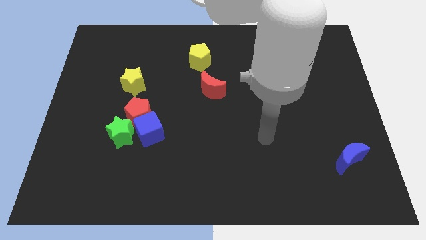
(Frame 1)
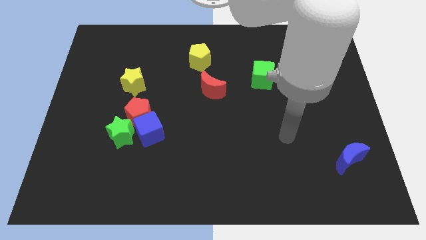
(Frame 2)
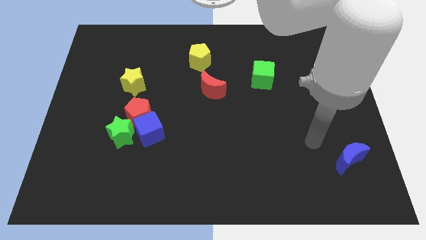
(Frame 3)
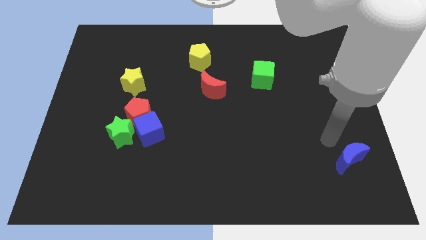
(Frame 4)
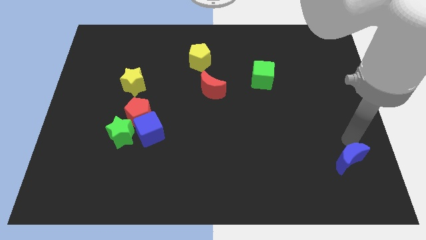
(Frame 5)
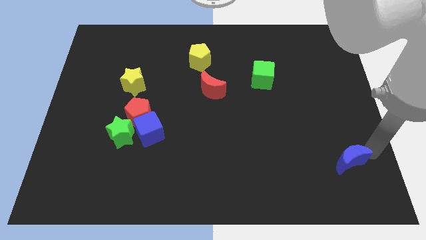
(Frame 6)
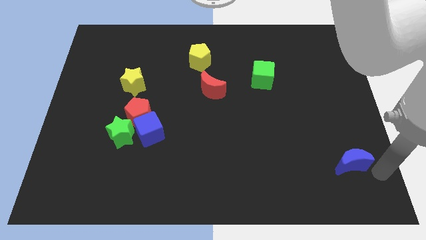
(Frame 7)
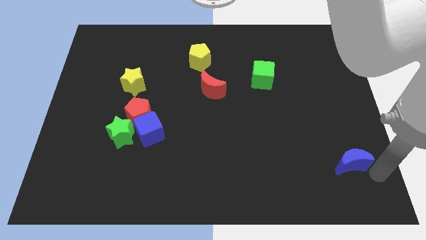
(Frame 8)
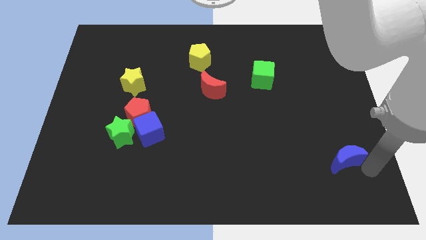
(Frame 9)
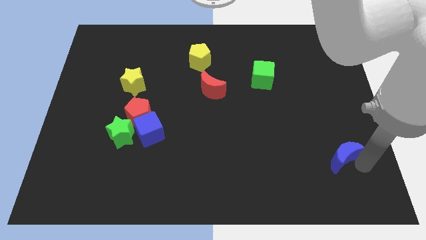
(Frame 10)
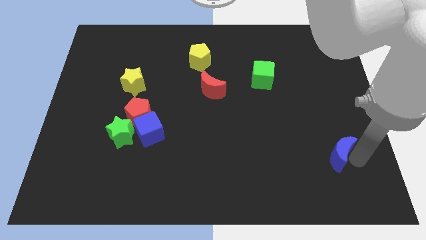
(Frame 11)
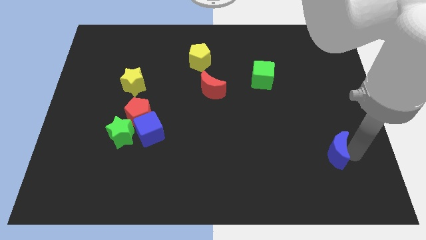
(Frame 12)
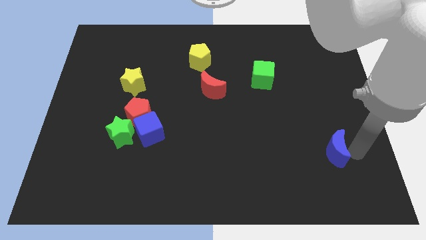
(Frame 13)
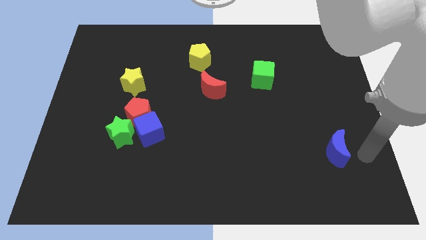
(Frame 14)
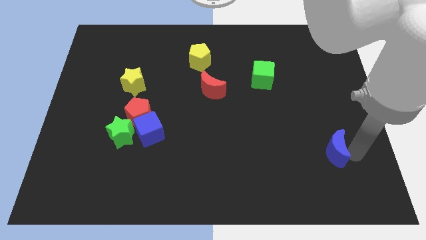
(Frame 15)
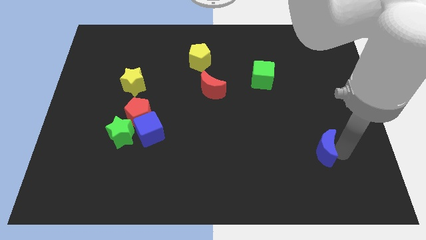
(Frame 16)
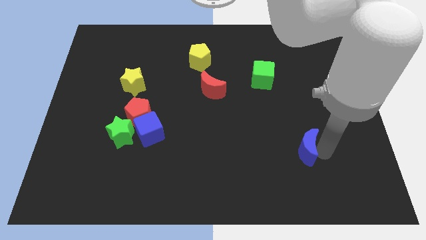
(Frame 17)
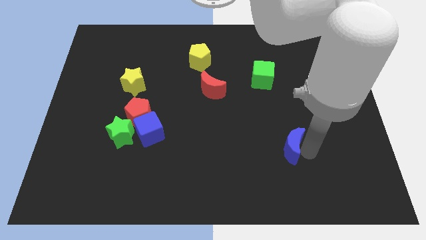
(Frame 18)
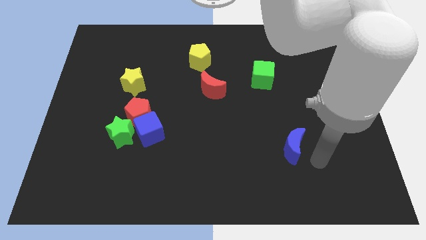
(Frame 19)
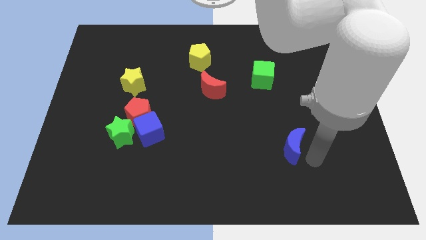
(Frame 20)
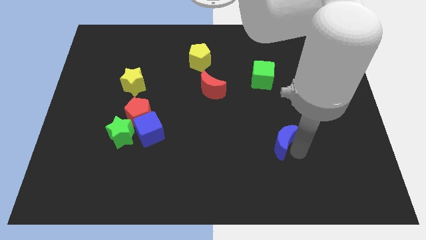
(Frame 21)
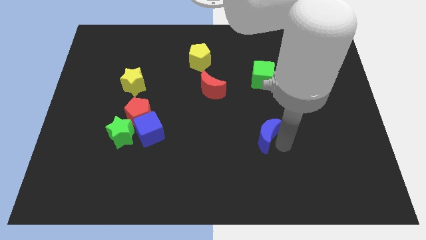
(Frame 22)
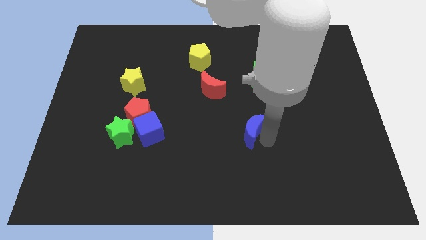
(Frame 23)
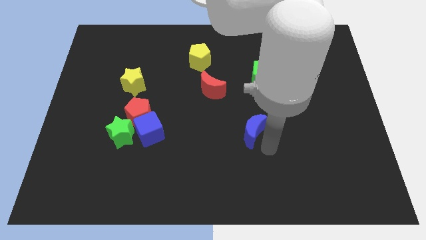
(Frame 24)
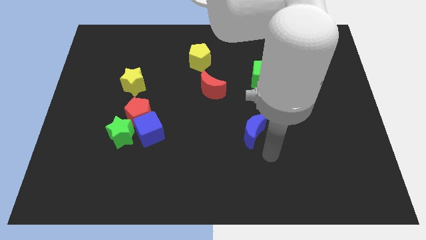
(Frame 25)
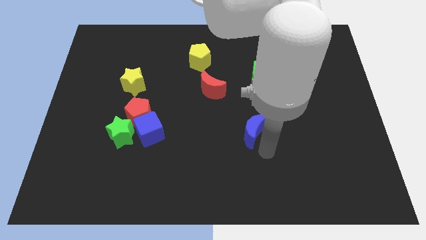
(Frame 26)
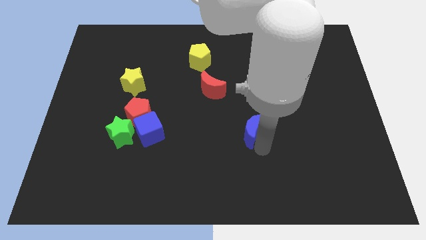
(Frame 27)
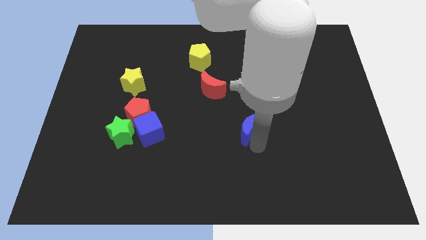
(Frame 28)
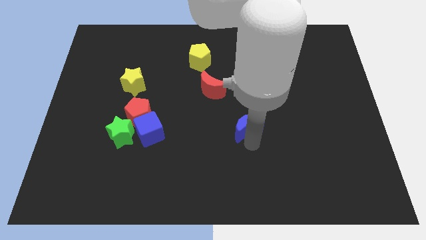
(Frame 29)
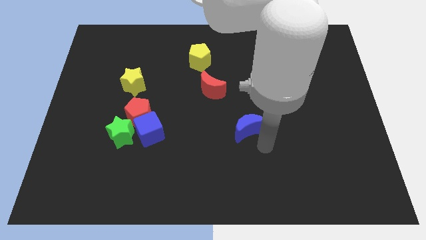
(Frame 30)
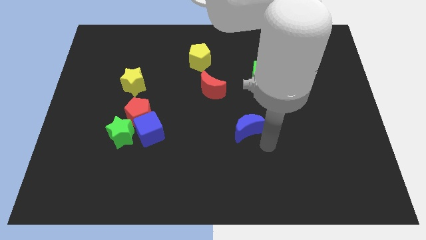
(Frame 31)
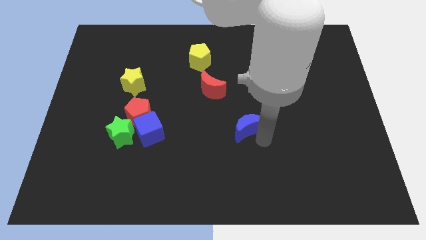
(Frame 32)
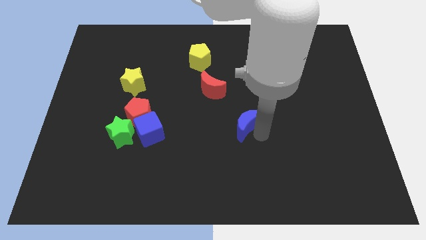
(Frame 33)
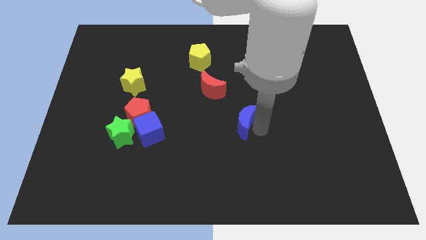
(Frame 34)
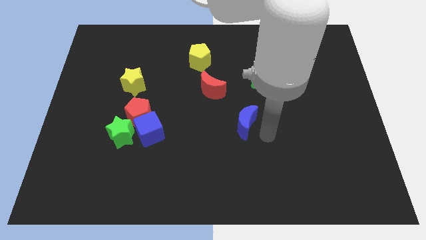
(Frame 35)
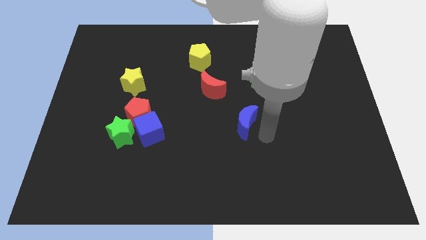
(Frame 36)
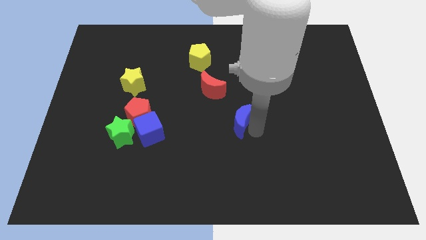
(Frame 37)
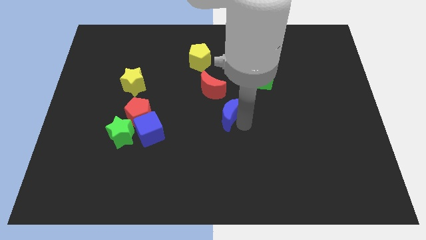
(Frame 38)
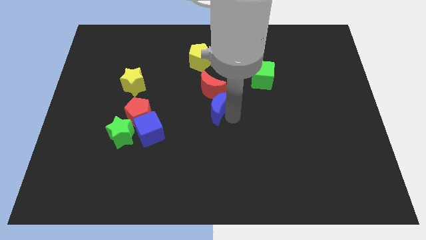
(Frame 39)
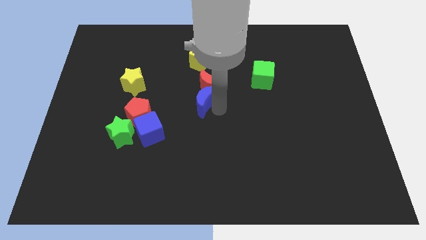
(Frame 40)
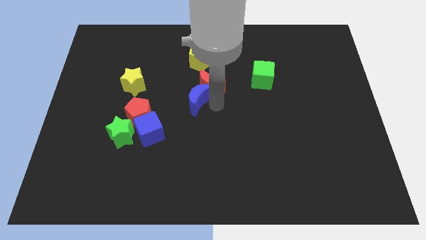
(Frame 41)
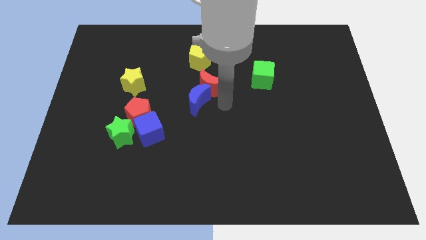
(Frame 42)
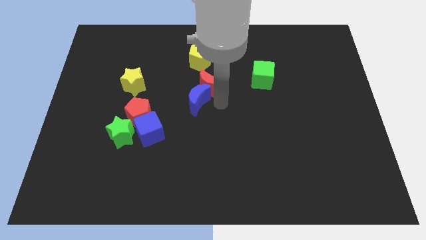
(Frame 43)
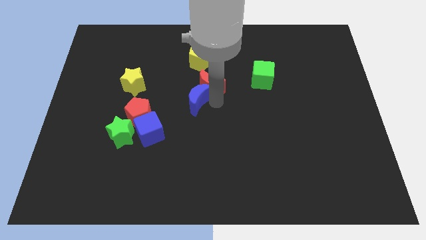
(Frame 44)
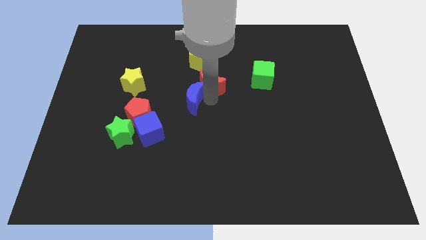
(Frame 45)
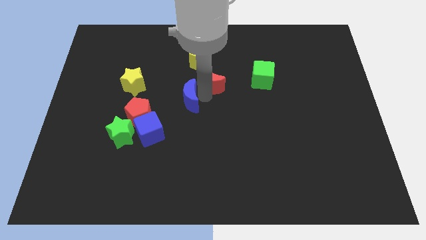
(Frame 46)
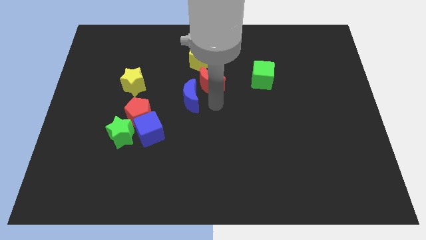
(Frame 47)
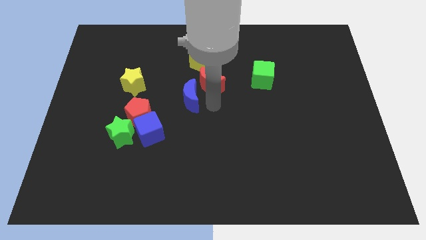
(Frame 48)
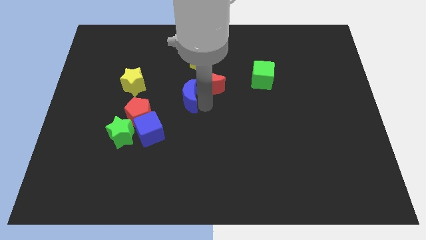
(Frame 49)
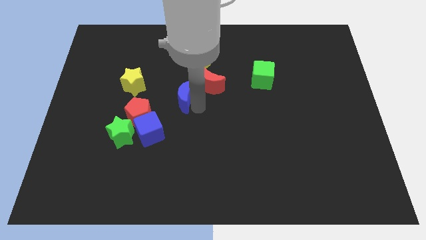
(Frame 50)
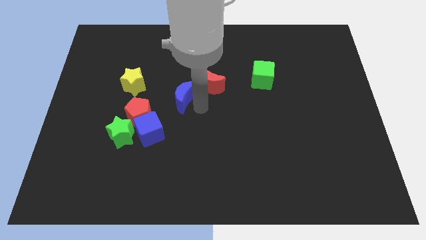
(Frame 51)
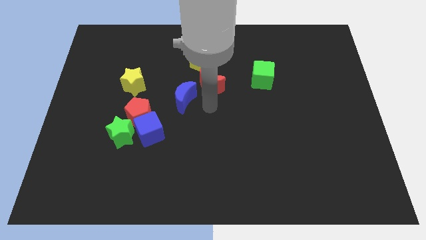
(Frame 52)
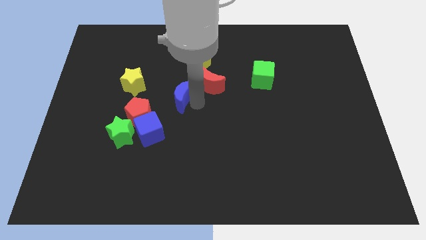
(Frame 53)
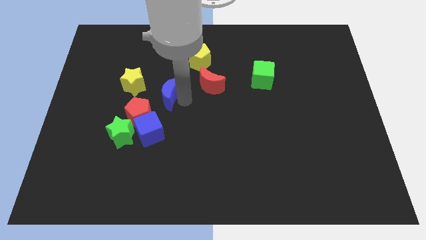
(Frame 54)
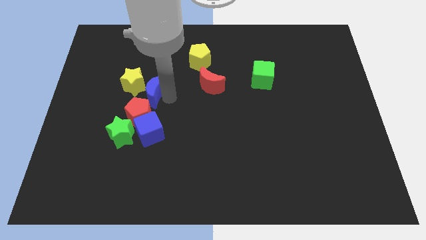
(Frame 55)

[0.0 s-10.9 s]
move the blue moon to the yellow star

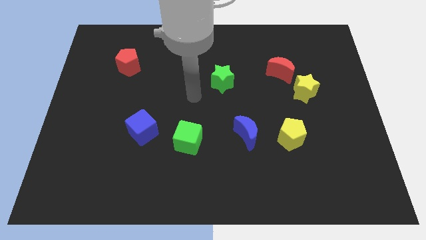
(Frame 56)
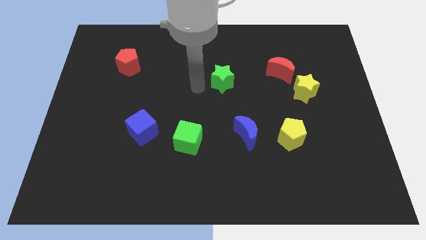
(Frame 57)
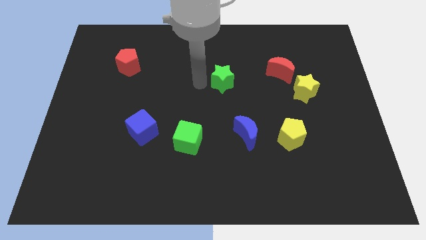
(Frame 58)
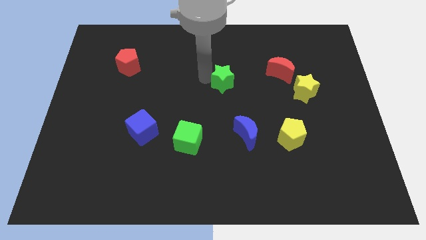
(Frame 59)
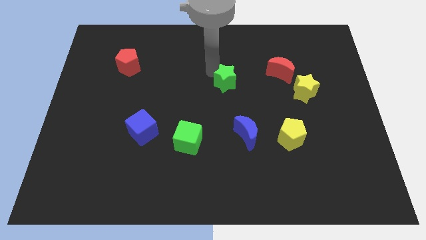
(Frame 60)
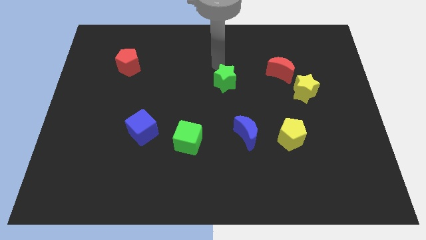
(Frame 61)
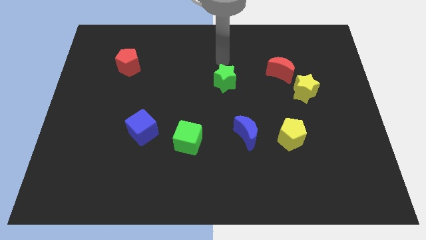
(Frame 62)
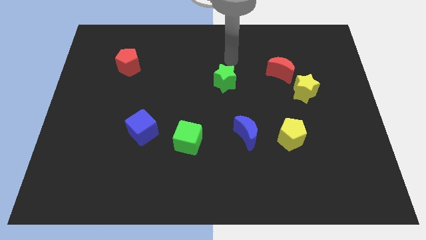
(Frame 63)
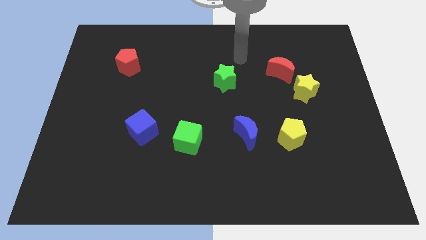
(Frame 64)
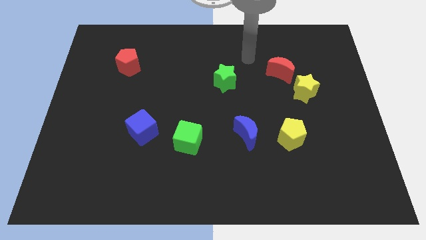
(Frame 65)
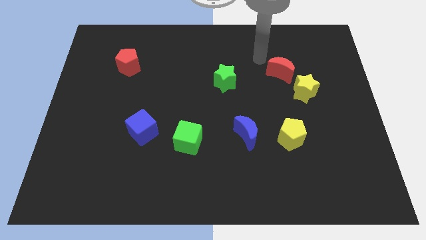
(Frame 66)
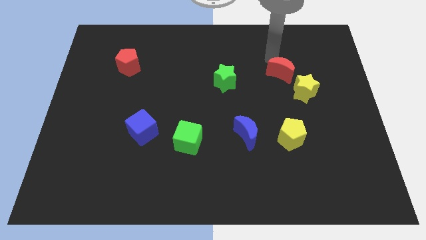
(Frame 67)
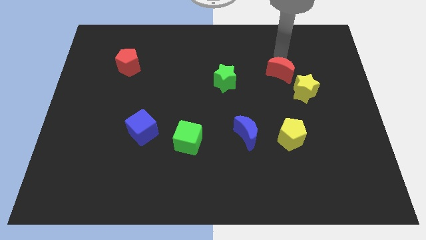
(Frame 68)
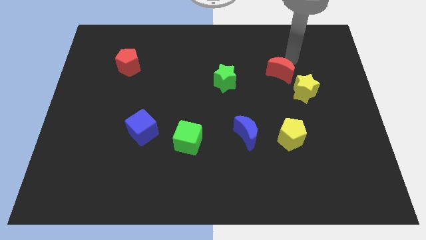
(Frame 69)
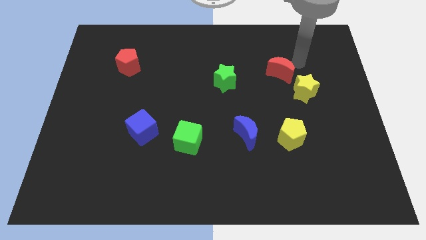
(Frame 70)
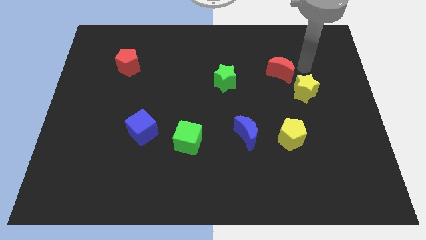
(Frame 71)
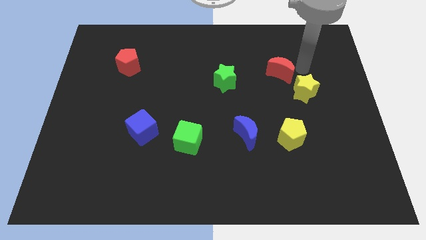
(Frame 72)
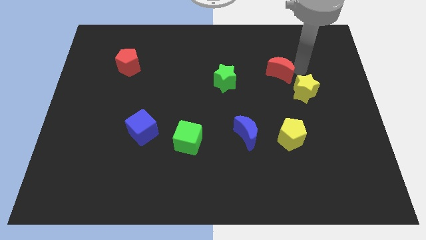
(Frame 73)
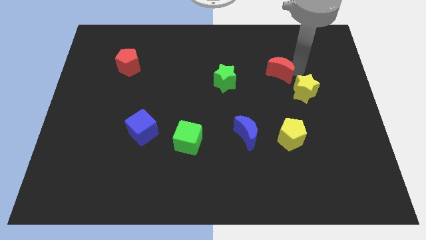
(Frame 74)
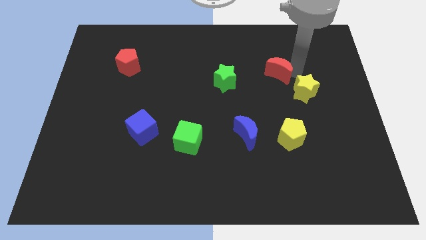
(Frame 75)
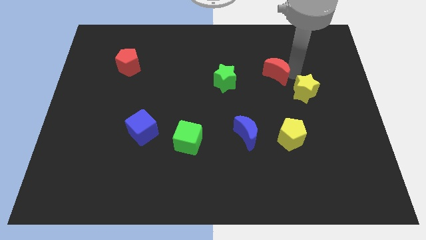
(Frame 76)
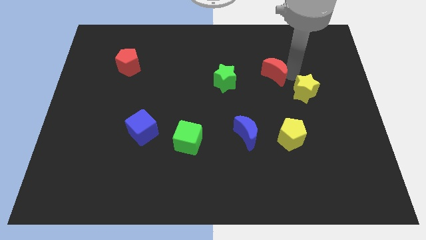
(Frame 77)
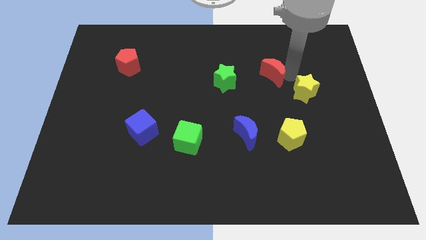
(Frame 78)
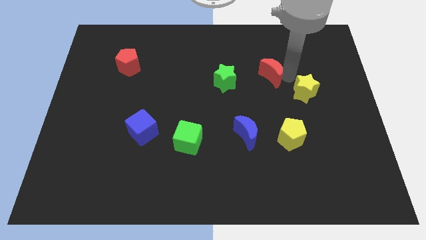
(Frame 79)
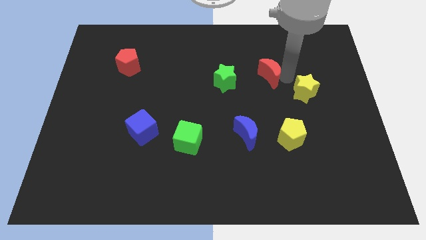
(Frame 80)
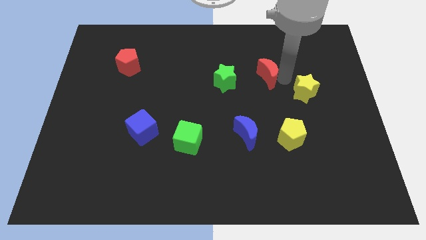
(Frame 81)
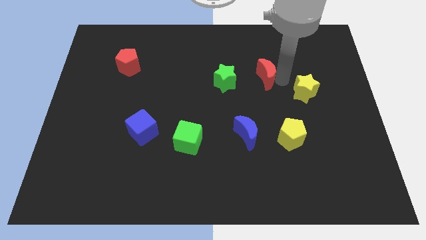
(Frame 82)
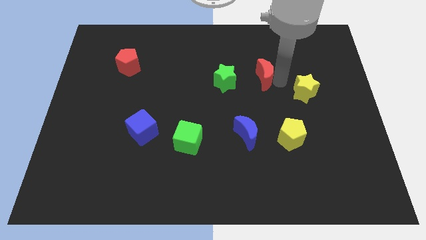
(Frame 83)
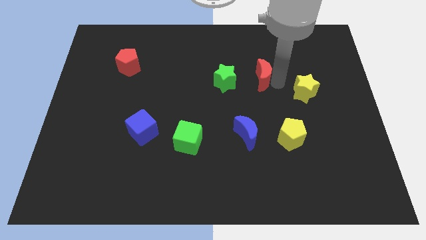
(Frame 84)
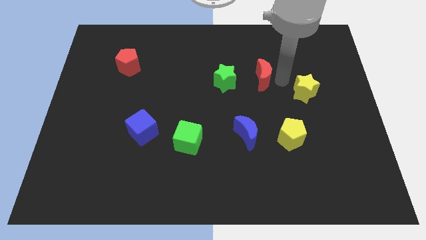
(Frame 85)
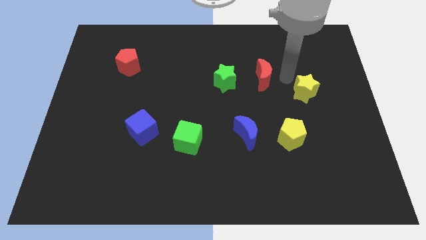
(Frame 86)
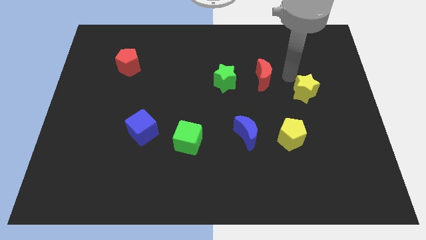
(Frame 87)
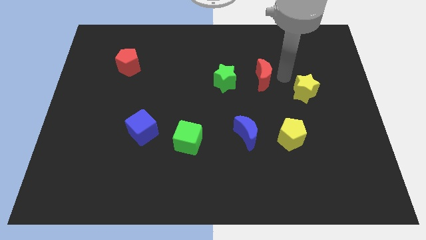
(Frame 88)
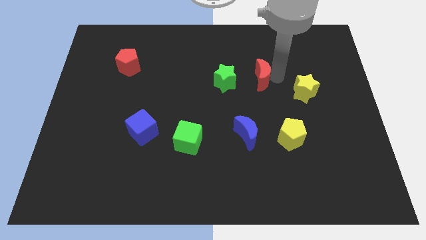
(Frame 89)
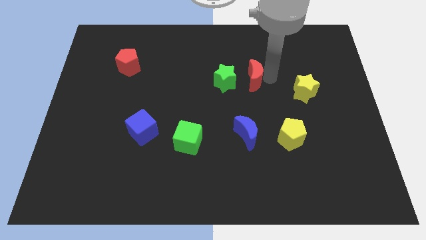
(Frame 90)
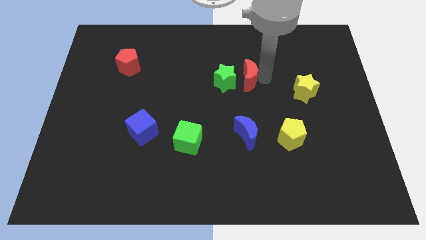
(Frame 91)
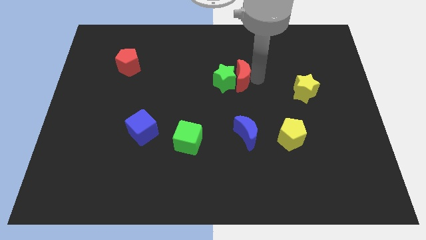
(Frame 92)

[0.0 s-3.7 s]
push the red moon towards the green star
